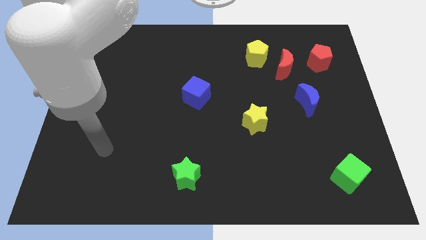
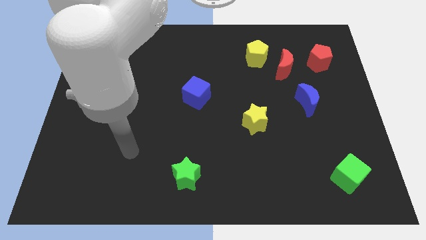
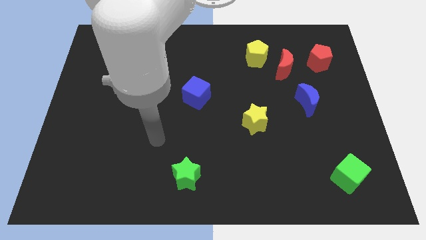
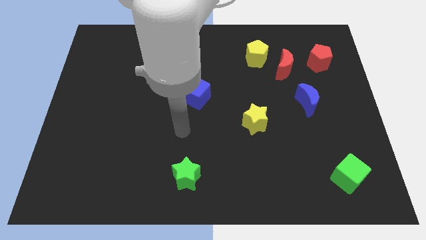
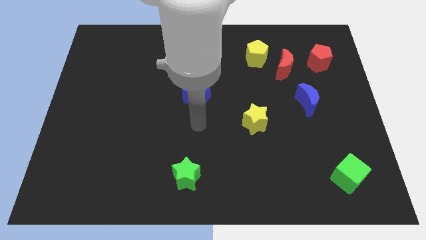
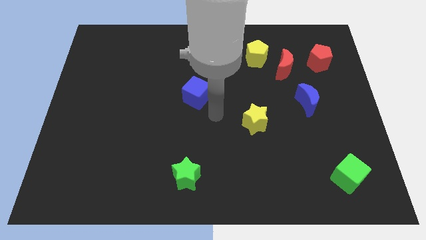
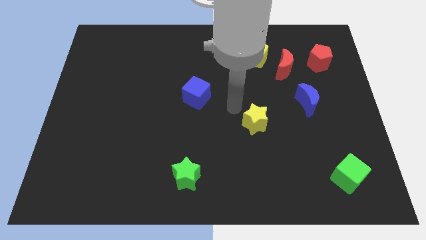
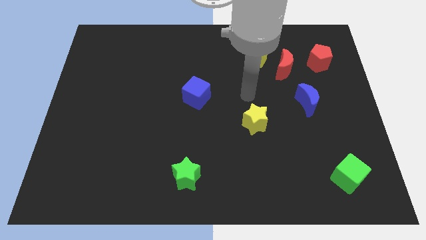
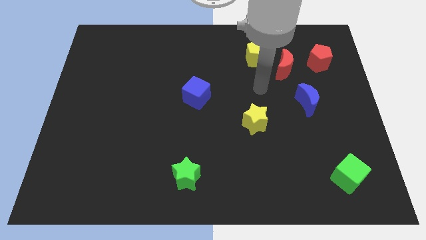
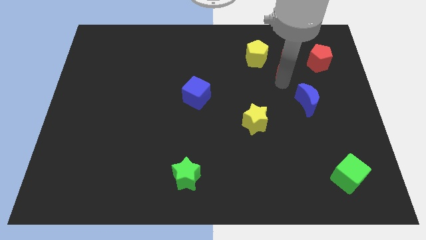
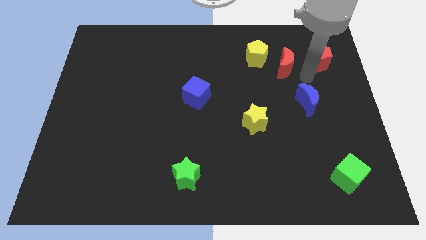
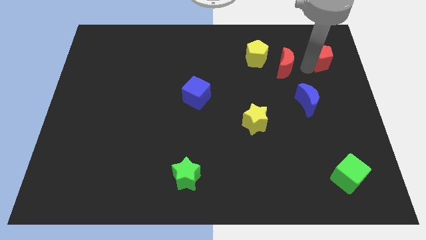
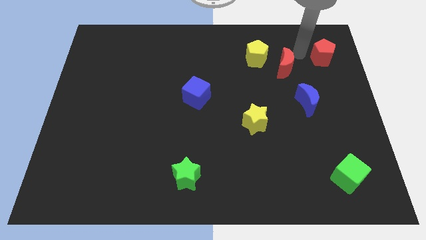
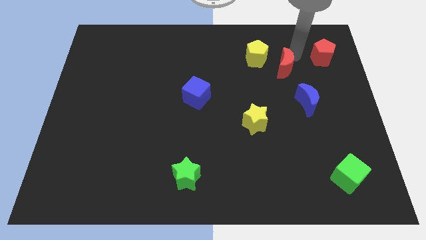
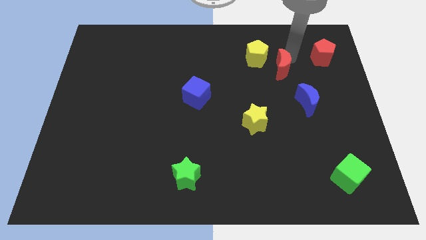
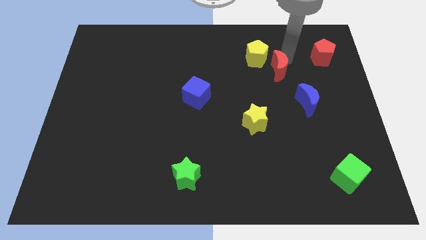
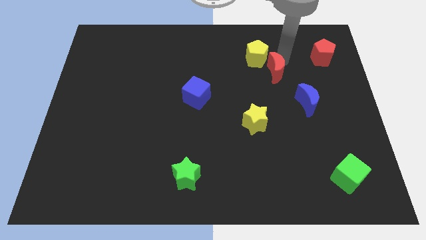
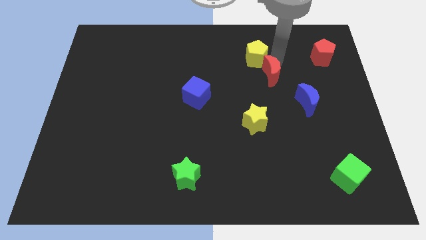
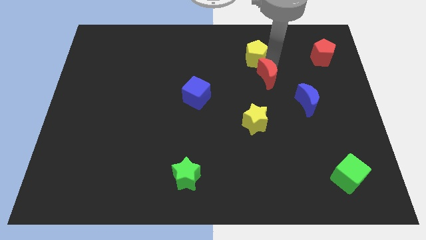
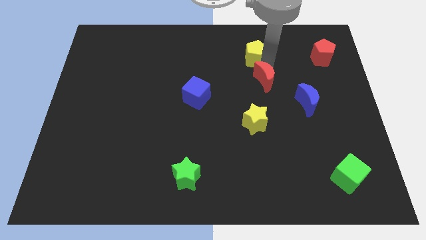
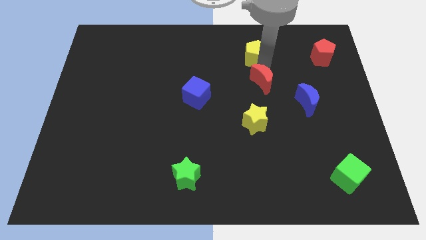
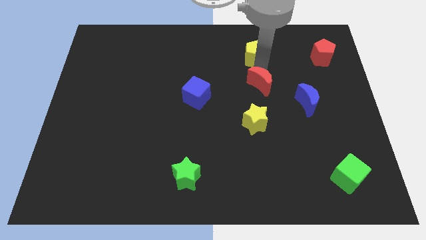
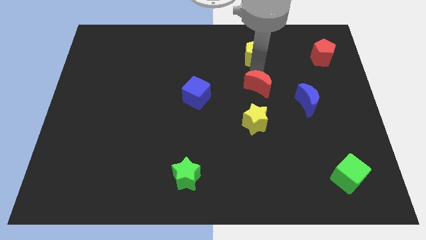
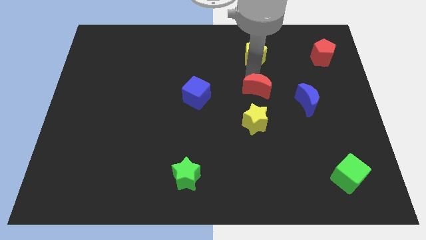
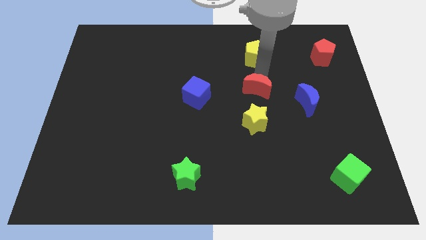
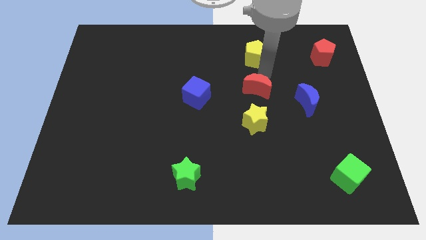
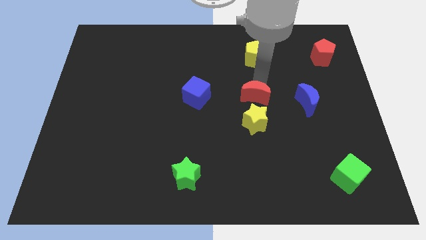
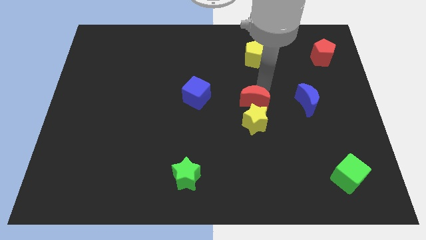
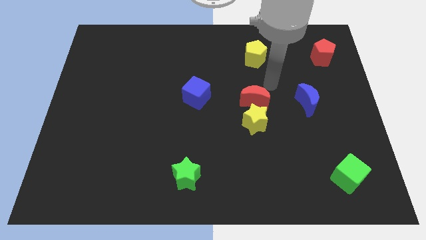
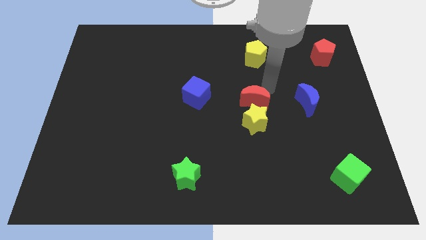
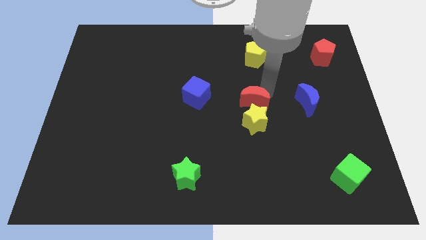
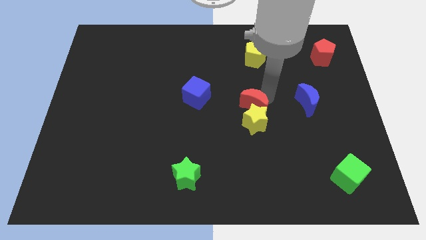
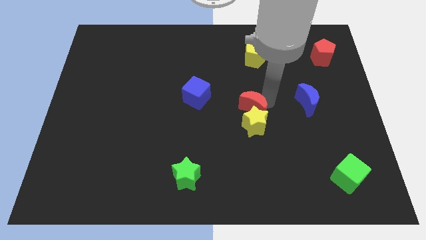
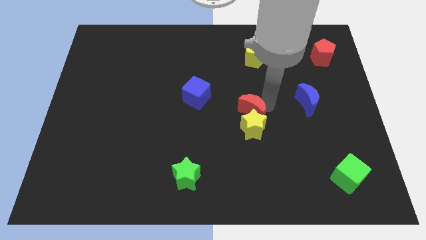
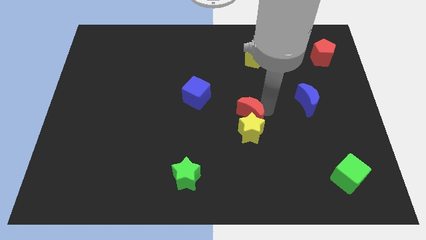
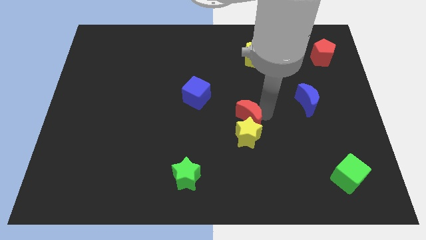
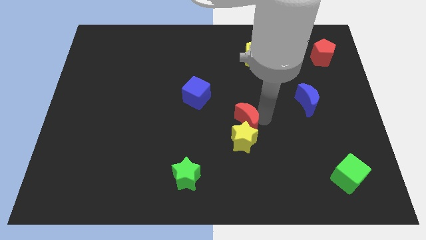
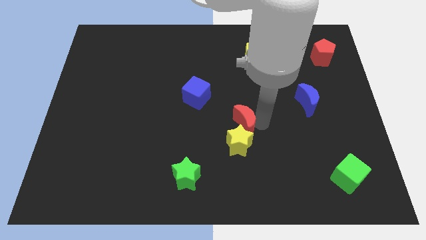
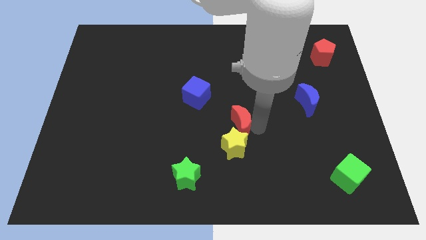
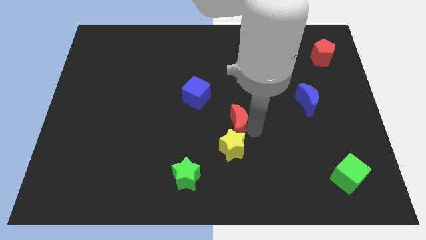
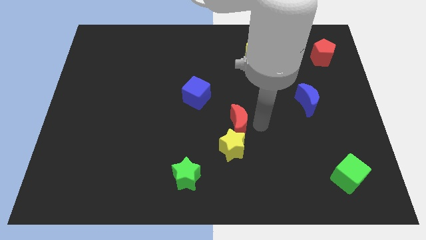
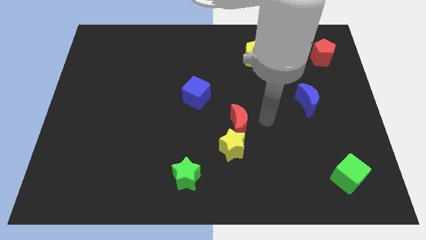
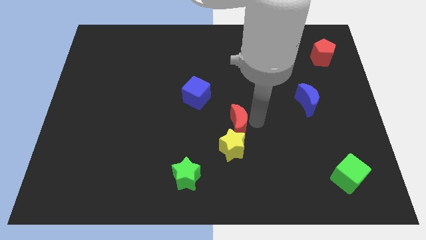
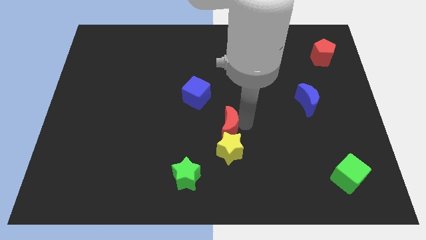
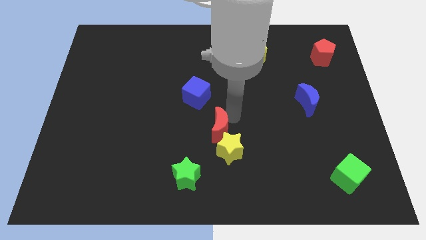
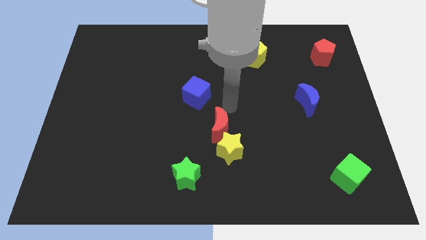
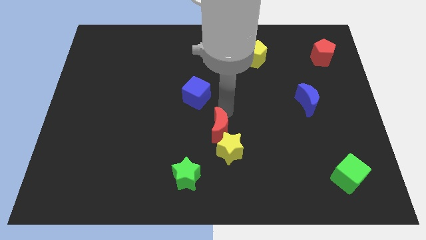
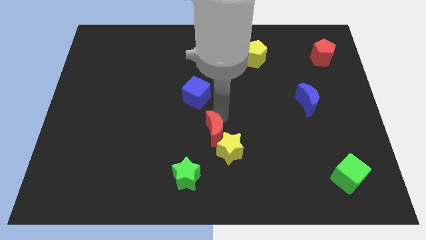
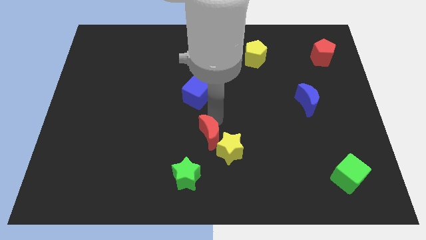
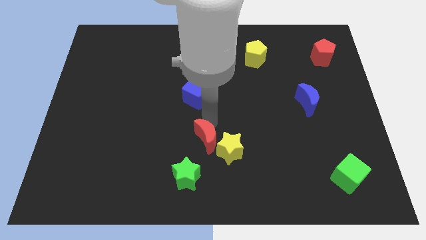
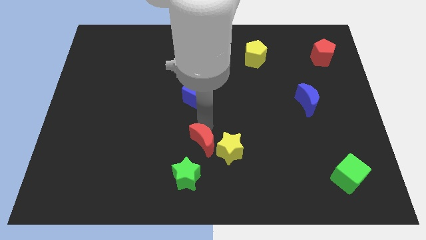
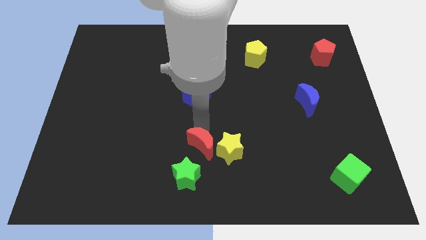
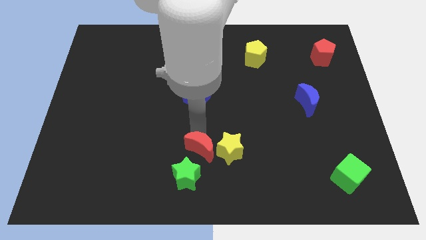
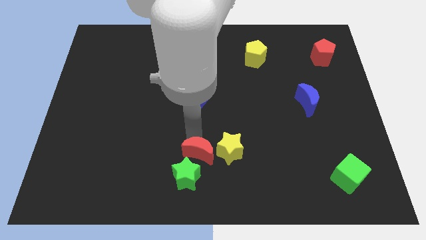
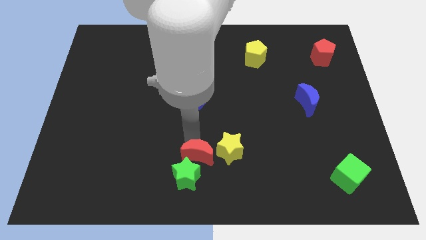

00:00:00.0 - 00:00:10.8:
put the red moon close to the green star

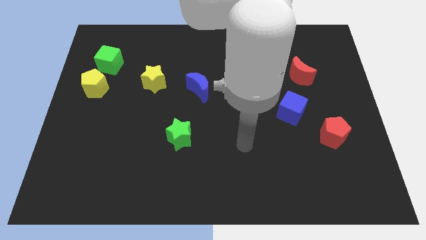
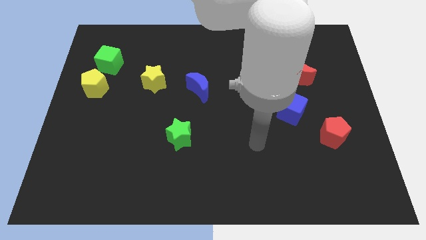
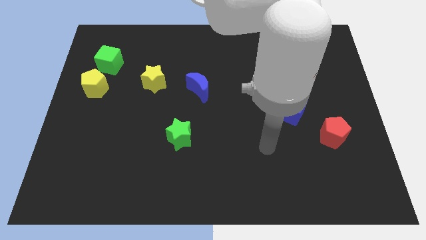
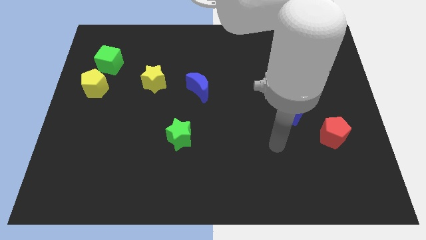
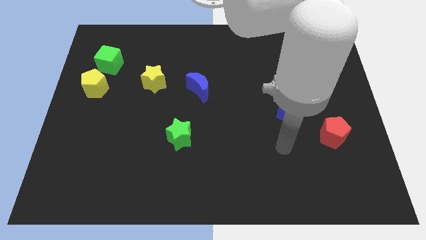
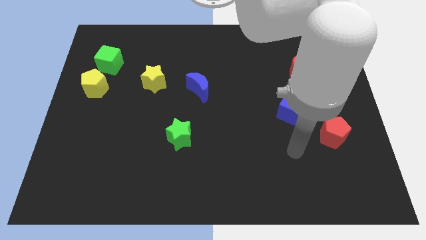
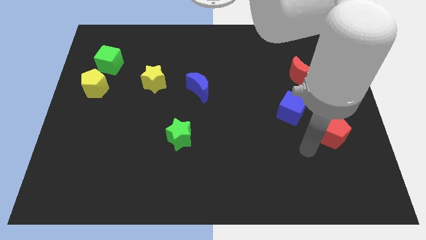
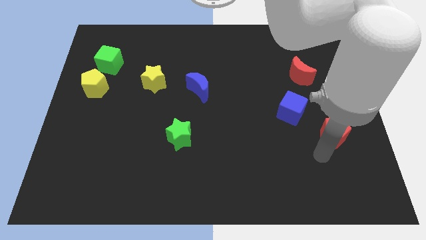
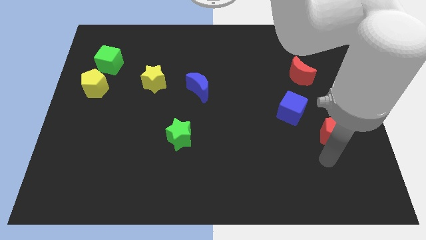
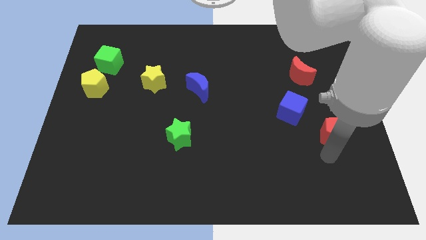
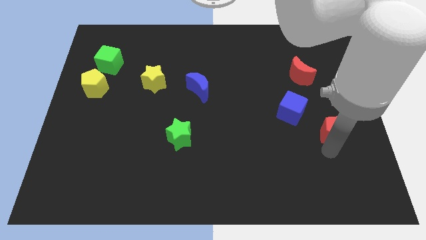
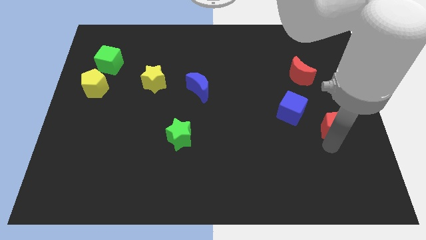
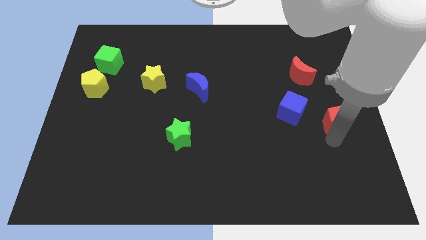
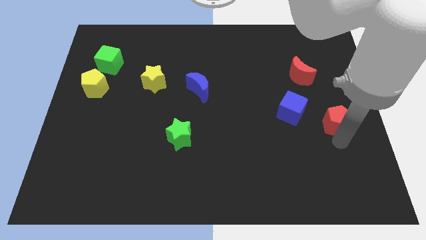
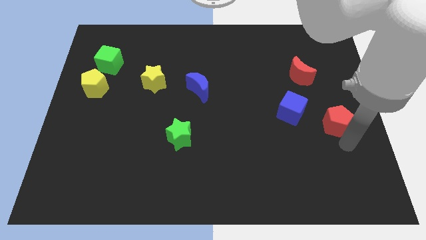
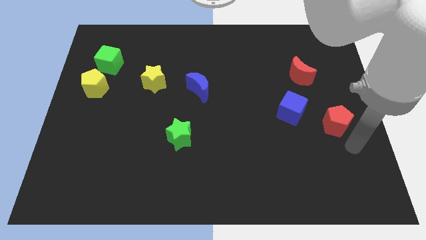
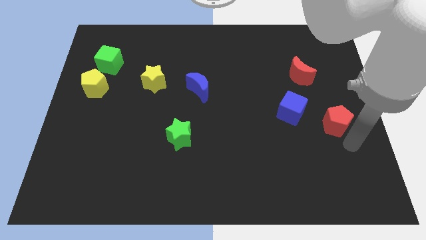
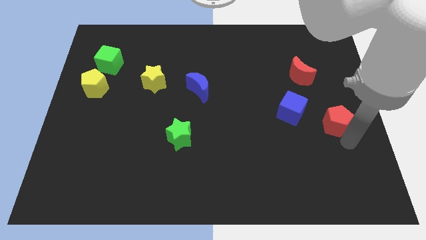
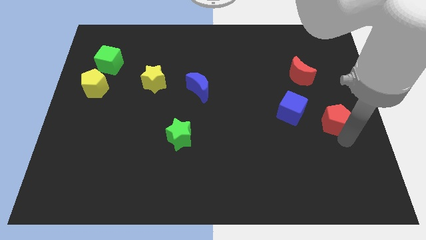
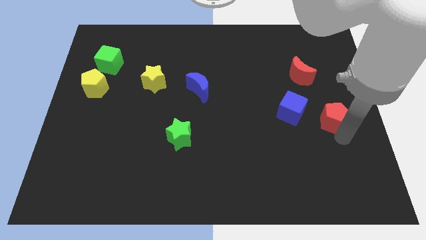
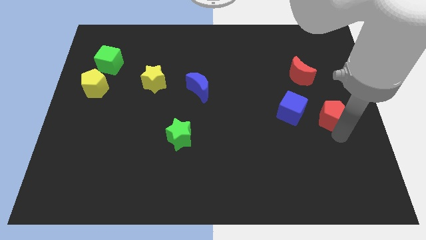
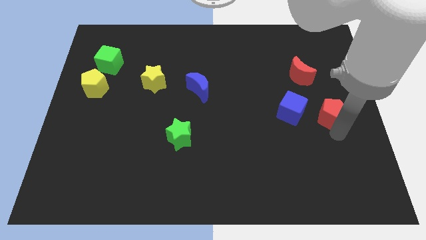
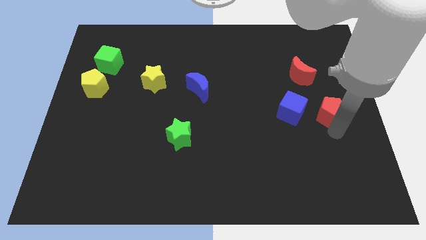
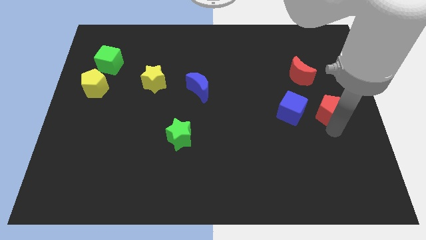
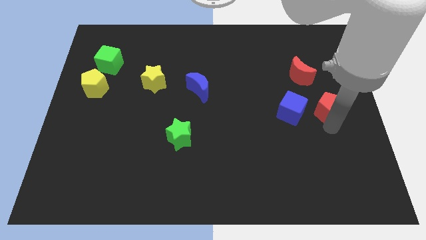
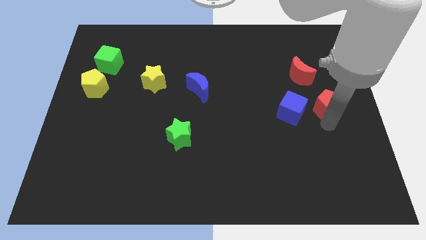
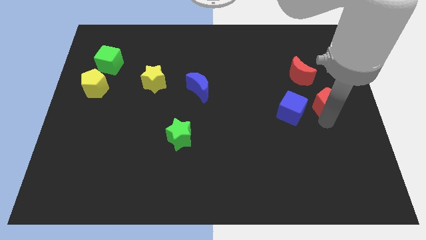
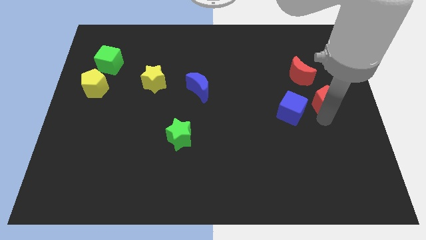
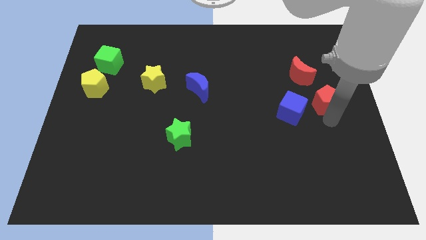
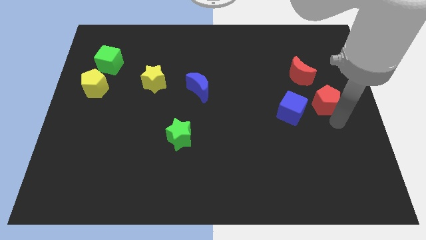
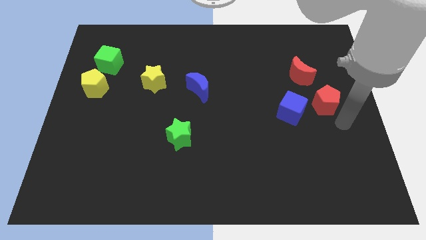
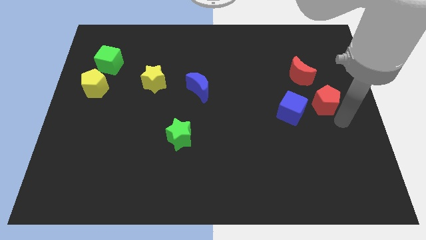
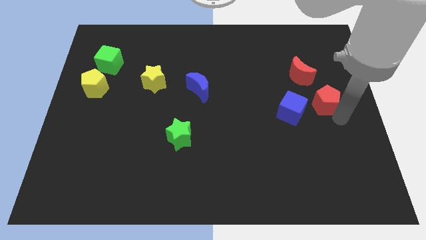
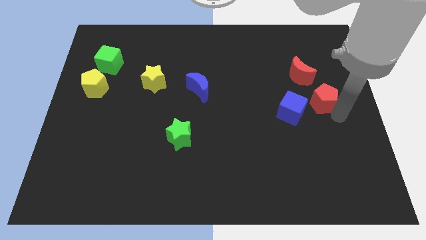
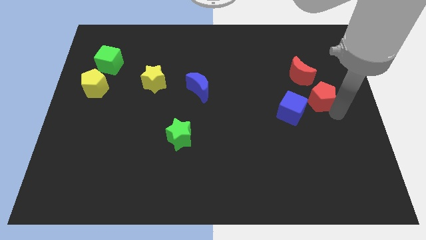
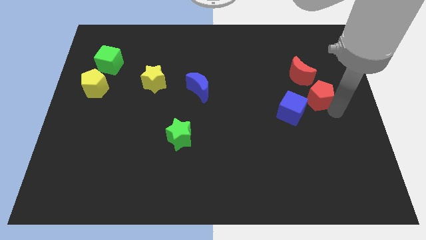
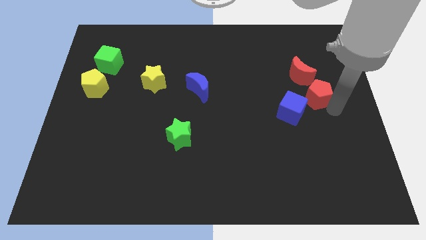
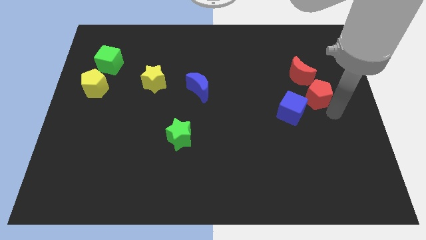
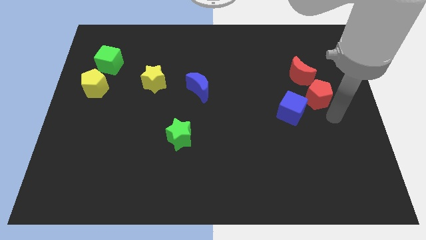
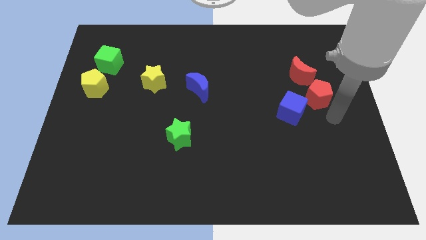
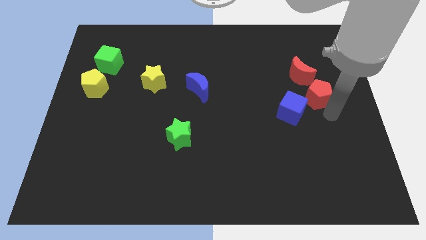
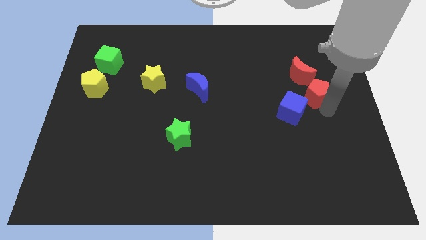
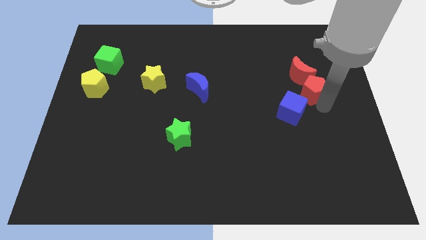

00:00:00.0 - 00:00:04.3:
push the red pentagon towards the red moon
